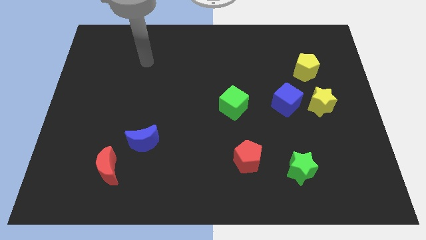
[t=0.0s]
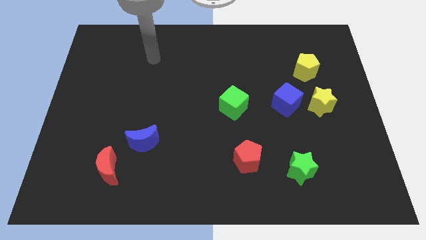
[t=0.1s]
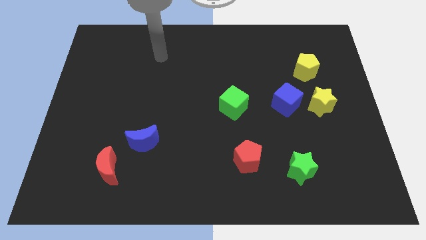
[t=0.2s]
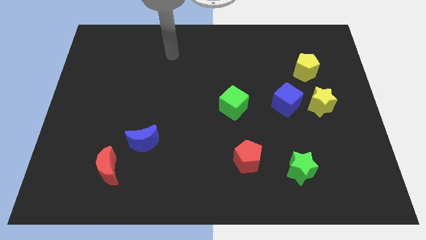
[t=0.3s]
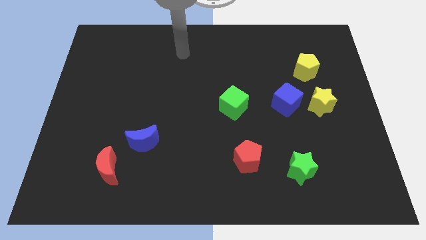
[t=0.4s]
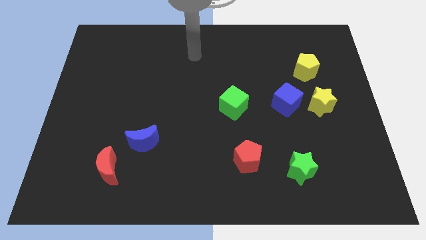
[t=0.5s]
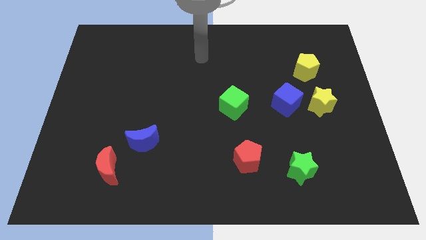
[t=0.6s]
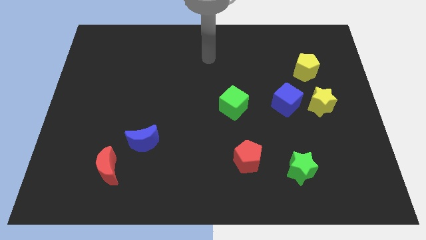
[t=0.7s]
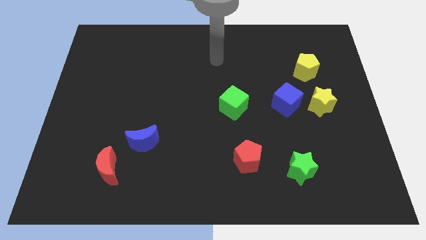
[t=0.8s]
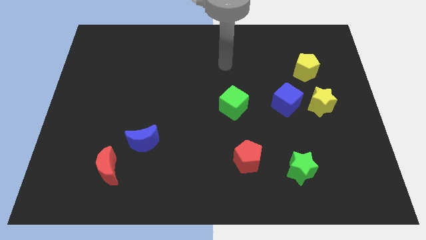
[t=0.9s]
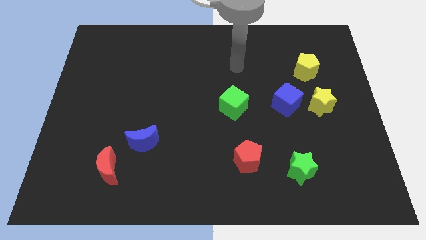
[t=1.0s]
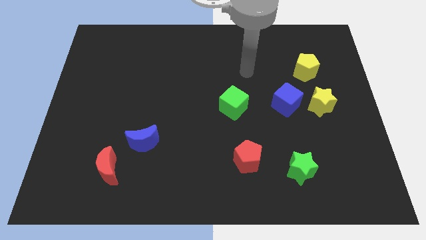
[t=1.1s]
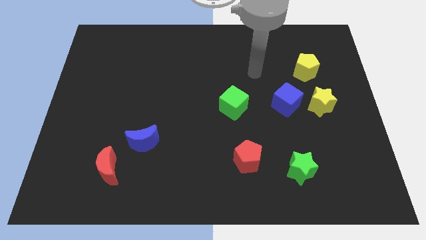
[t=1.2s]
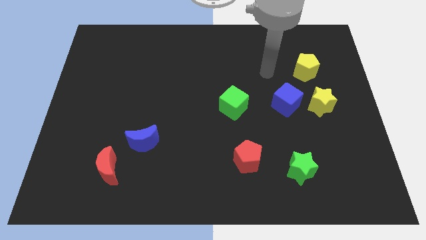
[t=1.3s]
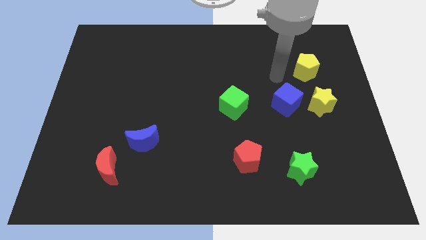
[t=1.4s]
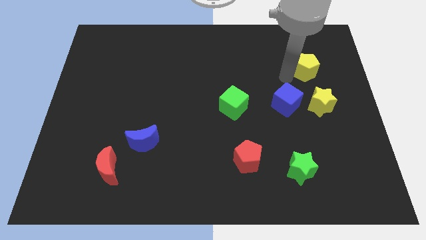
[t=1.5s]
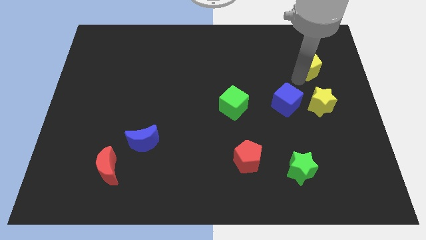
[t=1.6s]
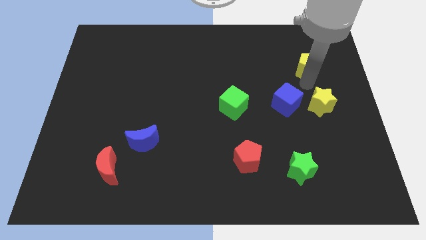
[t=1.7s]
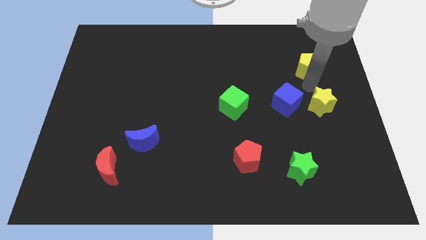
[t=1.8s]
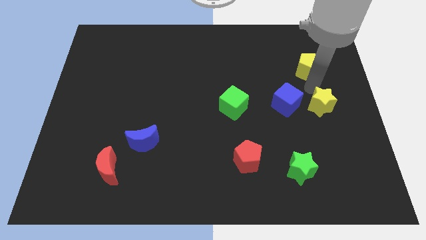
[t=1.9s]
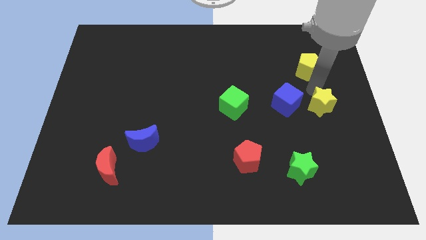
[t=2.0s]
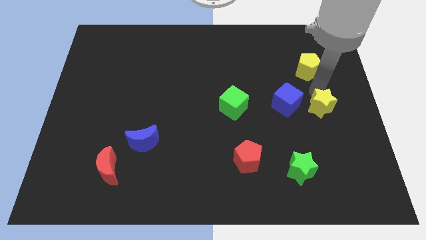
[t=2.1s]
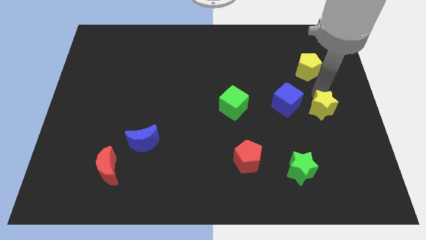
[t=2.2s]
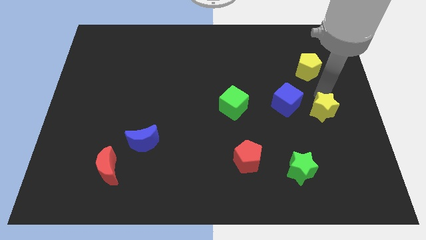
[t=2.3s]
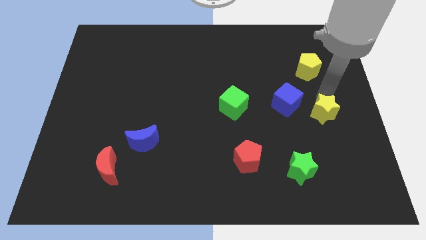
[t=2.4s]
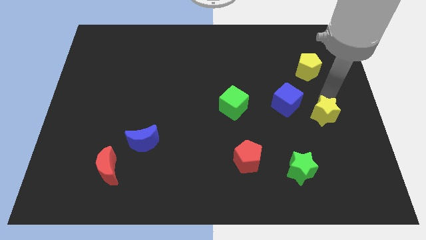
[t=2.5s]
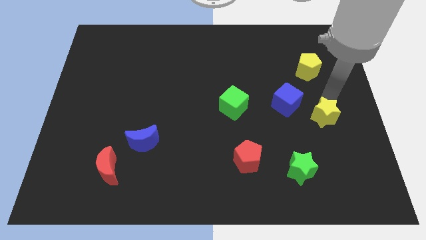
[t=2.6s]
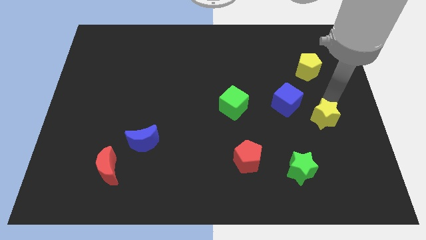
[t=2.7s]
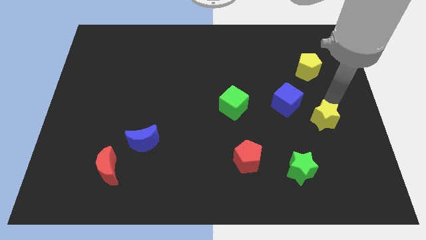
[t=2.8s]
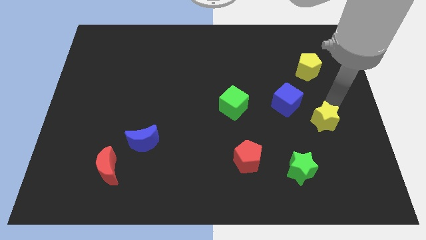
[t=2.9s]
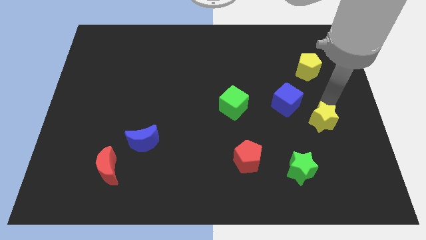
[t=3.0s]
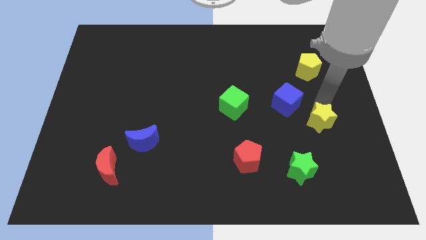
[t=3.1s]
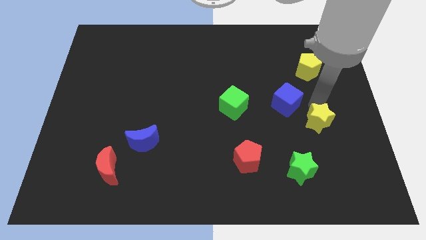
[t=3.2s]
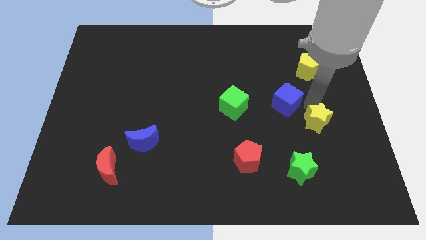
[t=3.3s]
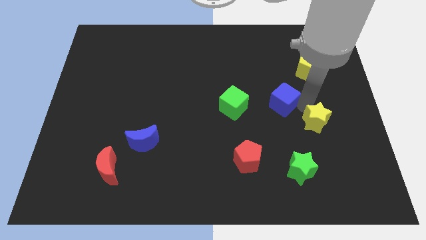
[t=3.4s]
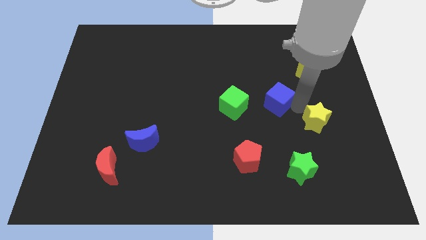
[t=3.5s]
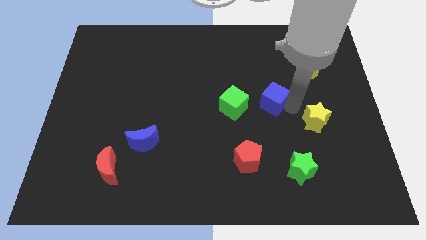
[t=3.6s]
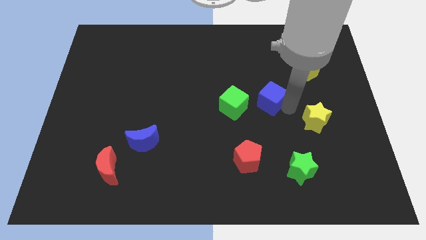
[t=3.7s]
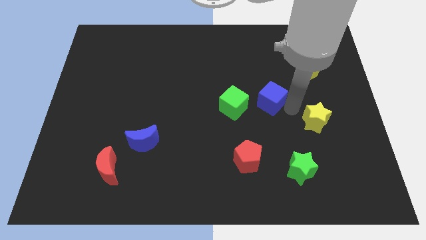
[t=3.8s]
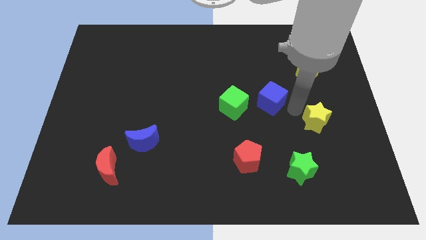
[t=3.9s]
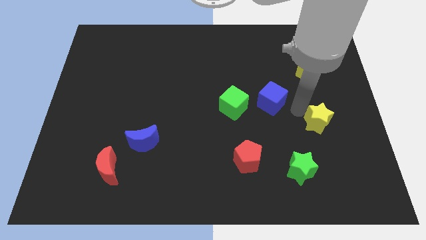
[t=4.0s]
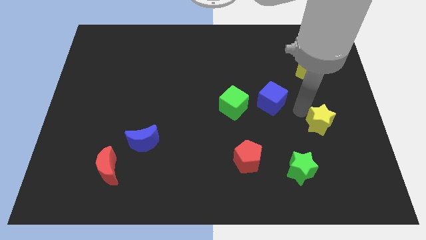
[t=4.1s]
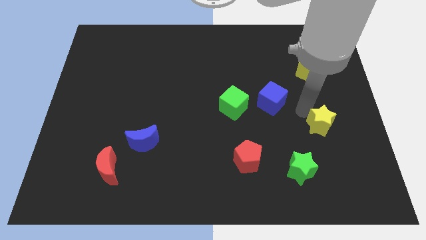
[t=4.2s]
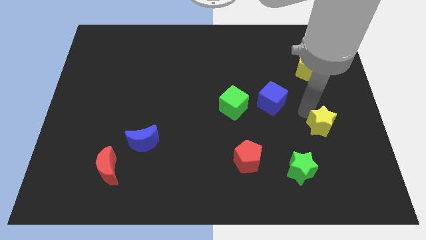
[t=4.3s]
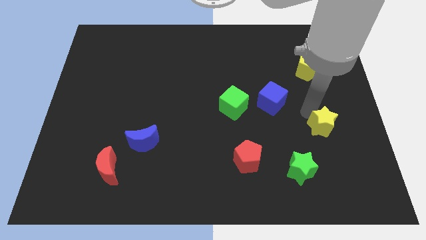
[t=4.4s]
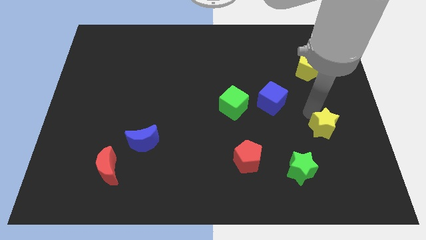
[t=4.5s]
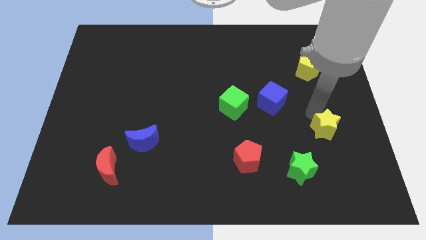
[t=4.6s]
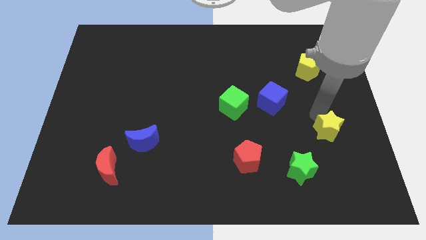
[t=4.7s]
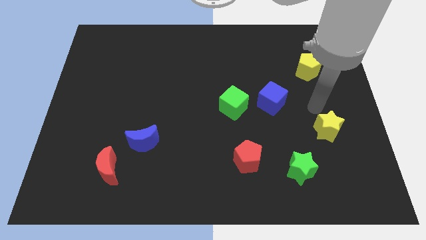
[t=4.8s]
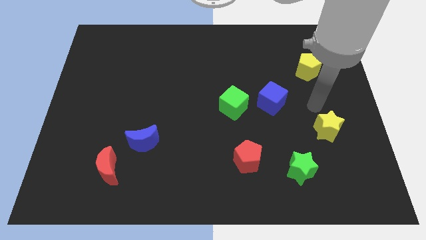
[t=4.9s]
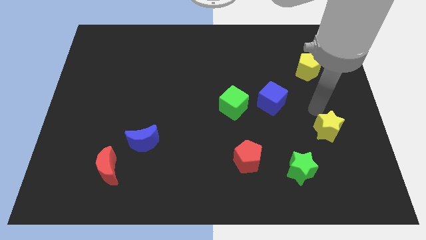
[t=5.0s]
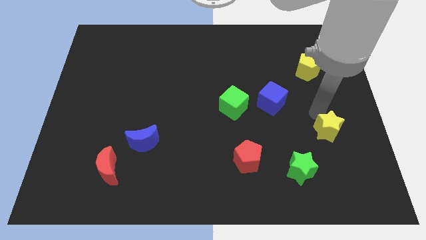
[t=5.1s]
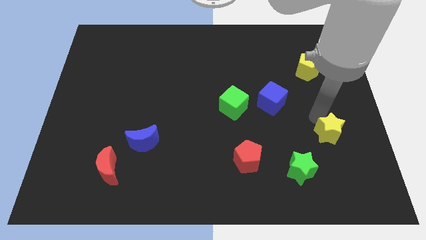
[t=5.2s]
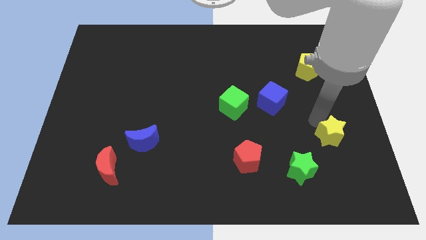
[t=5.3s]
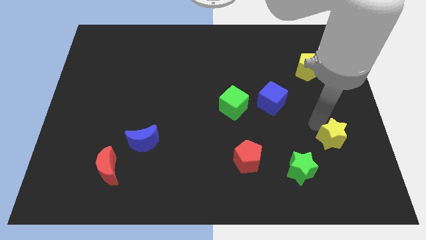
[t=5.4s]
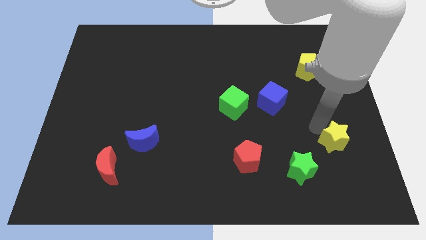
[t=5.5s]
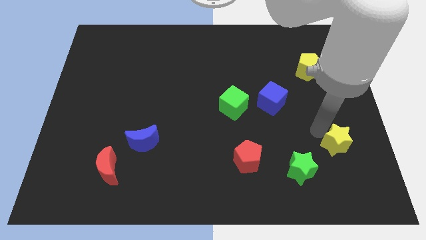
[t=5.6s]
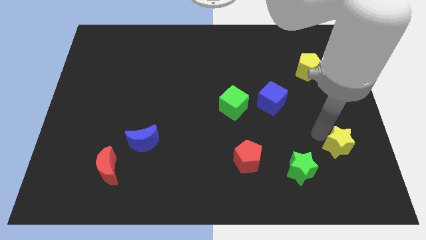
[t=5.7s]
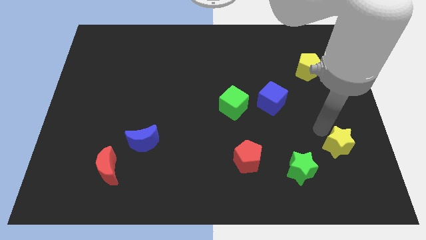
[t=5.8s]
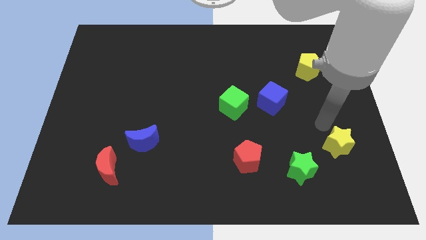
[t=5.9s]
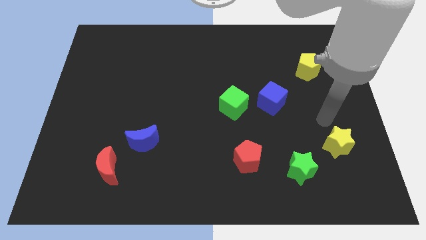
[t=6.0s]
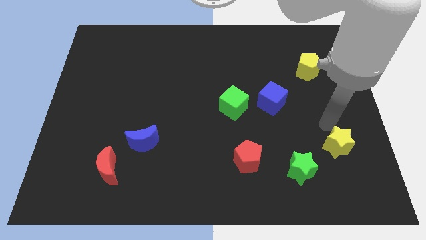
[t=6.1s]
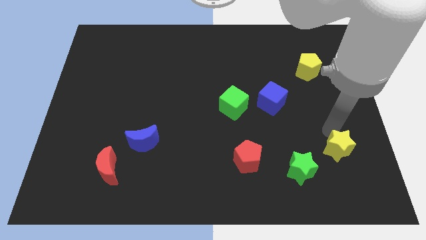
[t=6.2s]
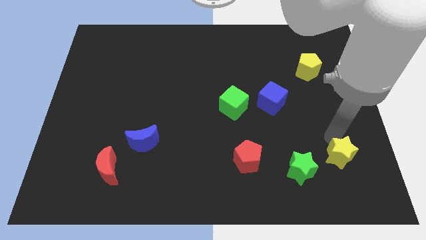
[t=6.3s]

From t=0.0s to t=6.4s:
push the yellow star to the right side of the green star

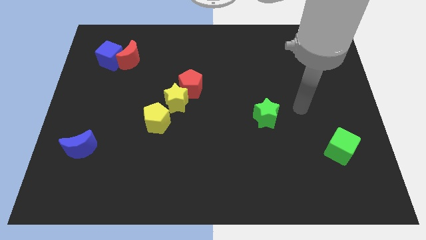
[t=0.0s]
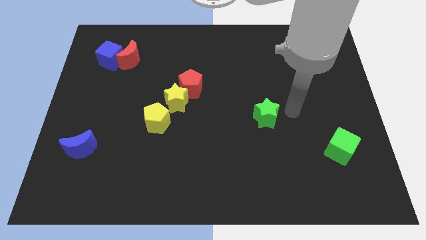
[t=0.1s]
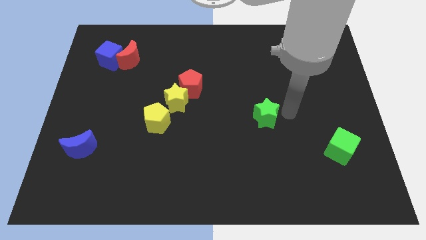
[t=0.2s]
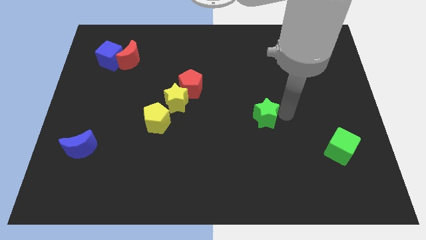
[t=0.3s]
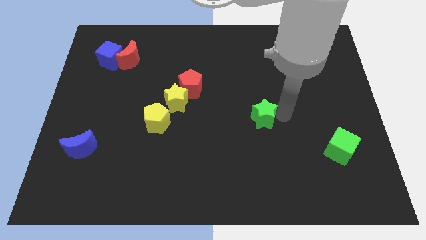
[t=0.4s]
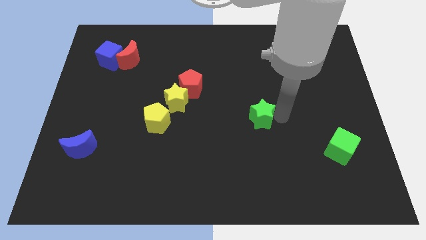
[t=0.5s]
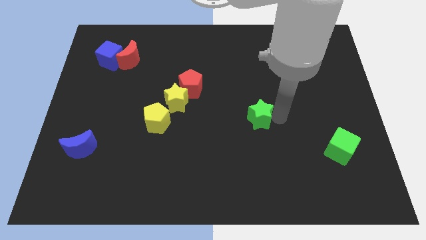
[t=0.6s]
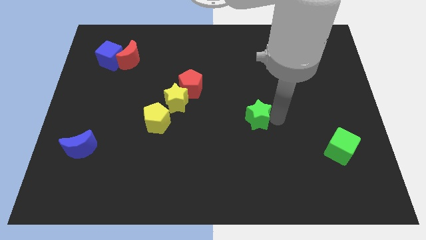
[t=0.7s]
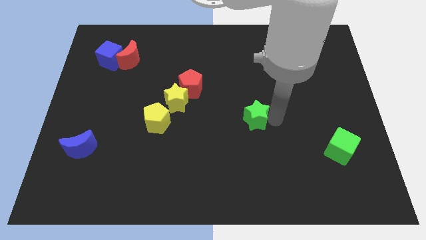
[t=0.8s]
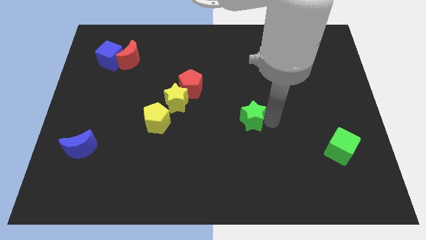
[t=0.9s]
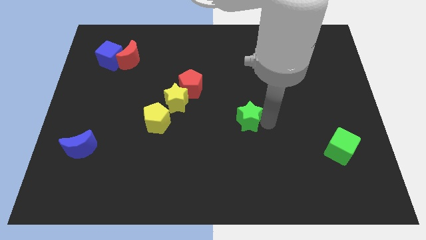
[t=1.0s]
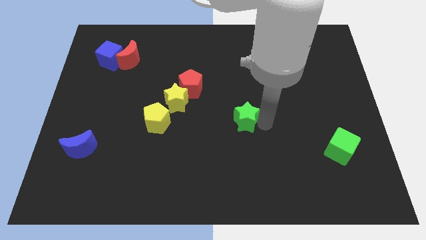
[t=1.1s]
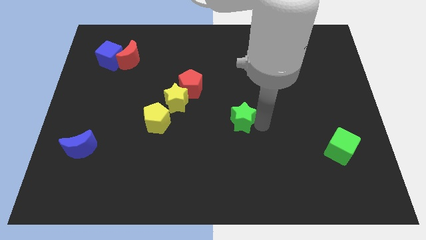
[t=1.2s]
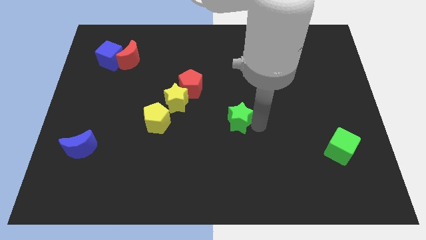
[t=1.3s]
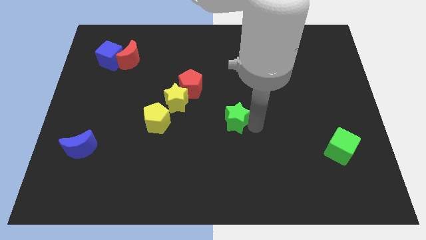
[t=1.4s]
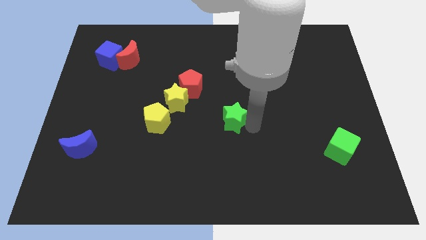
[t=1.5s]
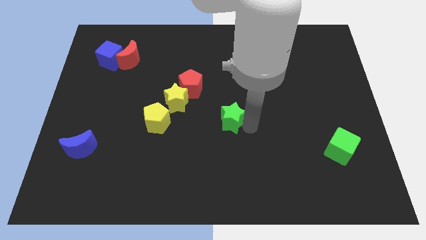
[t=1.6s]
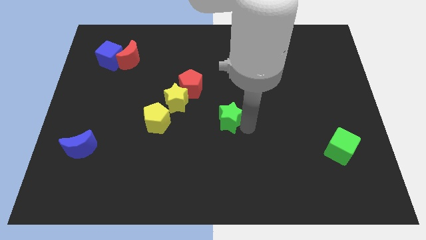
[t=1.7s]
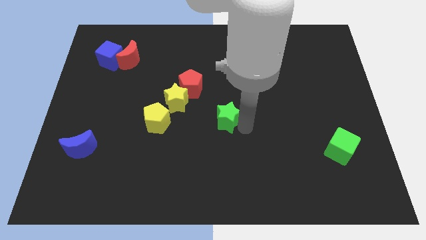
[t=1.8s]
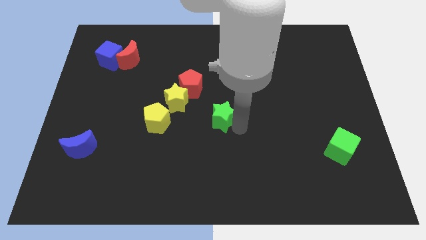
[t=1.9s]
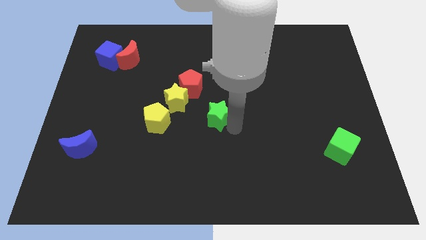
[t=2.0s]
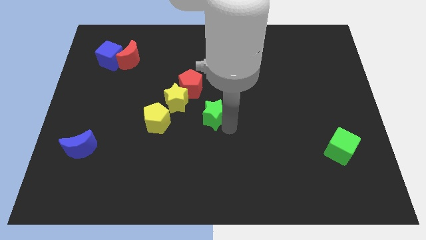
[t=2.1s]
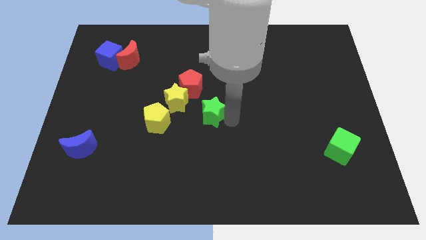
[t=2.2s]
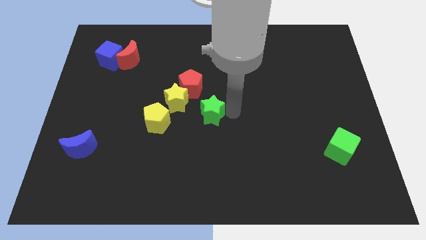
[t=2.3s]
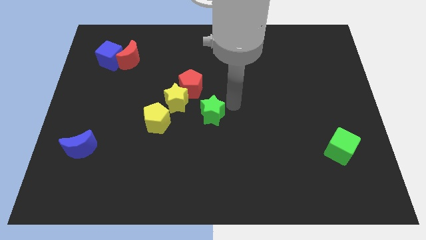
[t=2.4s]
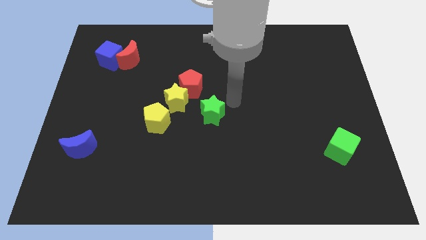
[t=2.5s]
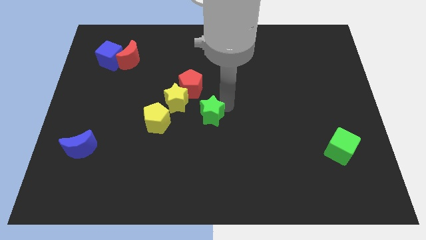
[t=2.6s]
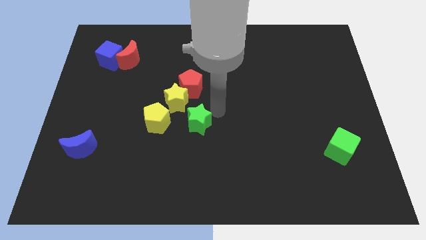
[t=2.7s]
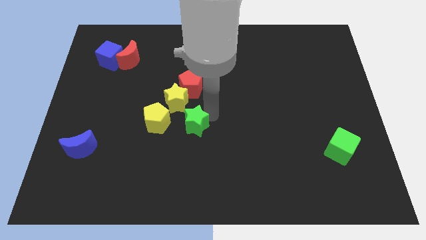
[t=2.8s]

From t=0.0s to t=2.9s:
put the green star to the bottom of the yellow star
